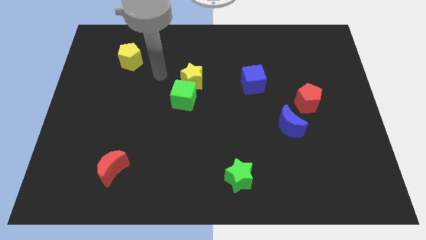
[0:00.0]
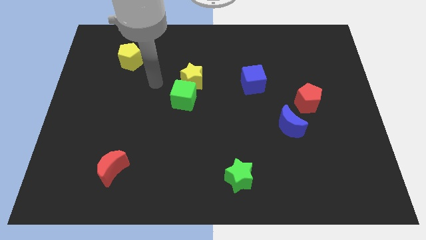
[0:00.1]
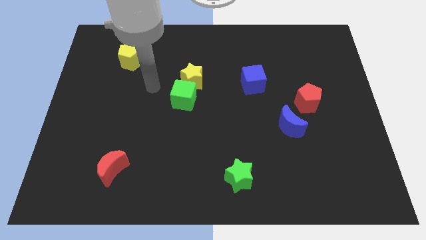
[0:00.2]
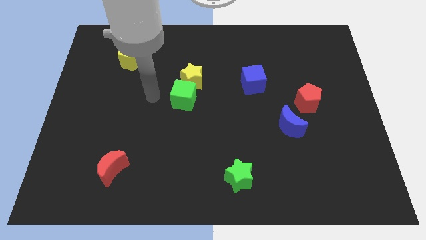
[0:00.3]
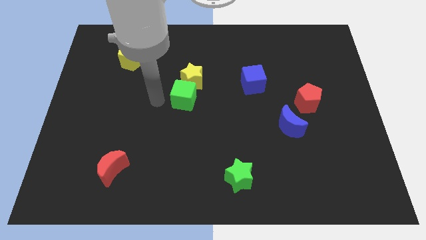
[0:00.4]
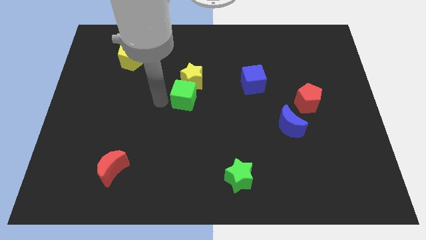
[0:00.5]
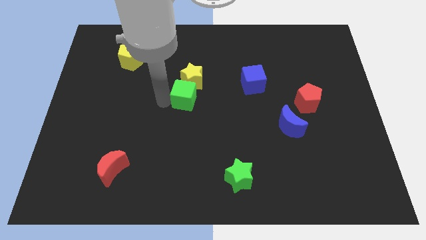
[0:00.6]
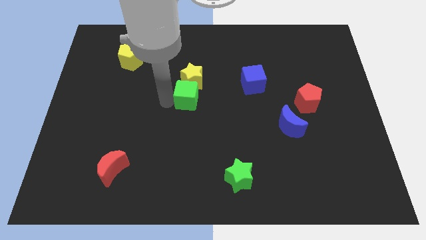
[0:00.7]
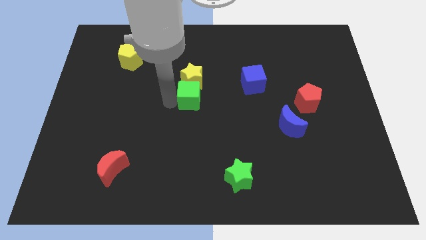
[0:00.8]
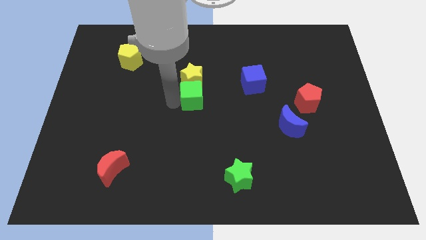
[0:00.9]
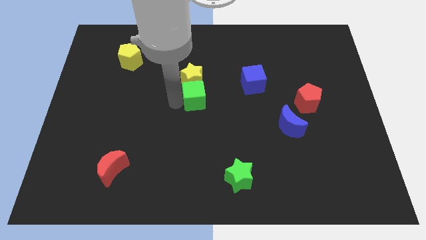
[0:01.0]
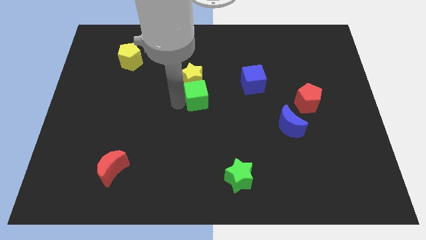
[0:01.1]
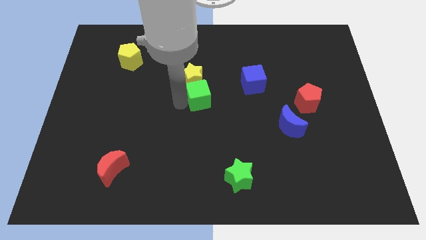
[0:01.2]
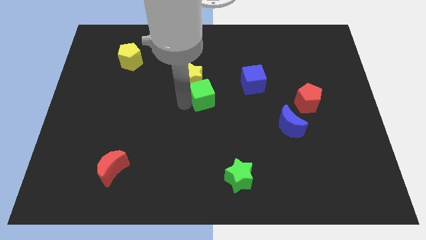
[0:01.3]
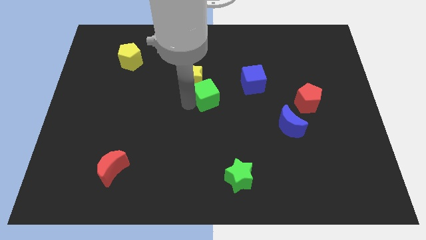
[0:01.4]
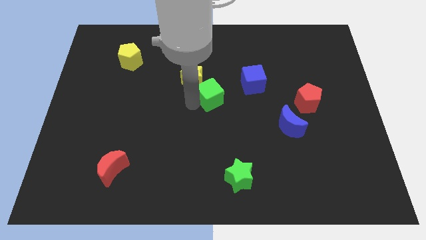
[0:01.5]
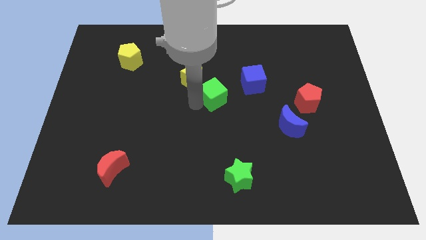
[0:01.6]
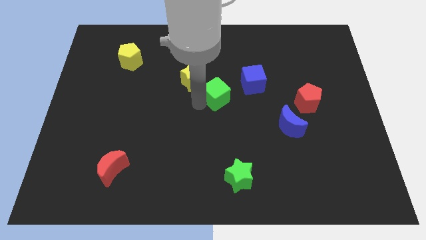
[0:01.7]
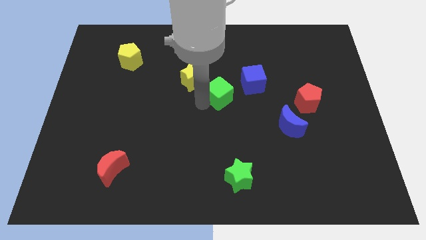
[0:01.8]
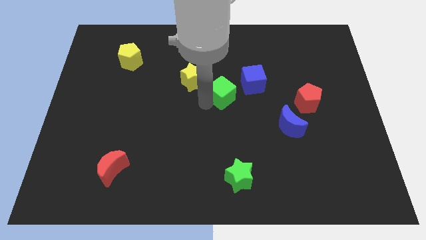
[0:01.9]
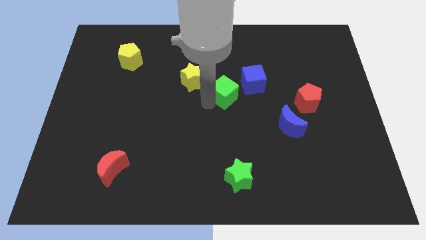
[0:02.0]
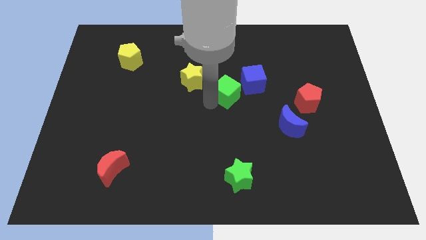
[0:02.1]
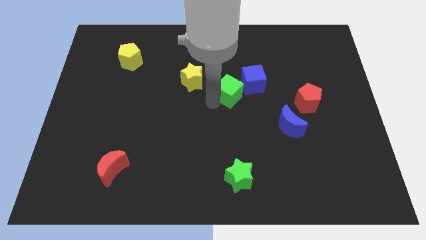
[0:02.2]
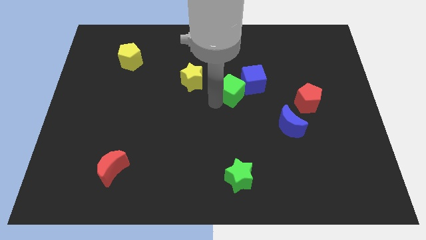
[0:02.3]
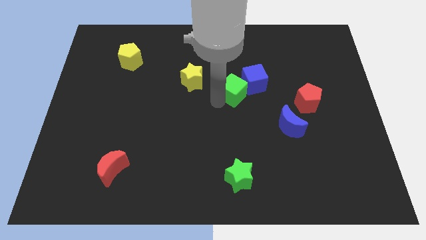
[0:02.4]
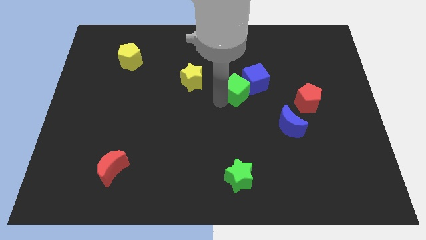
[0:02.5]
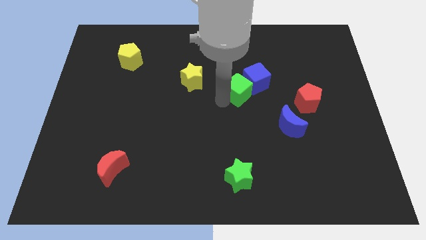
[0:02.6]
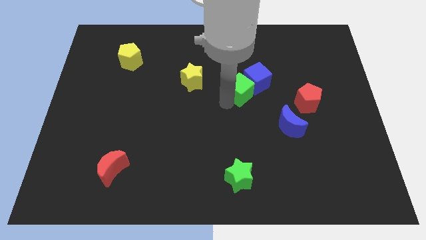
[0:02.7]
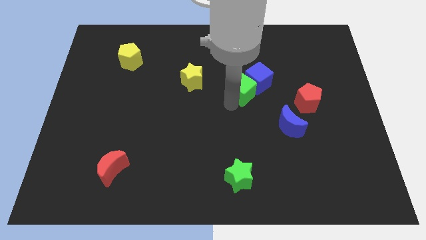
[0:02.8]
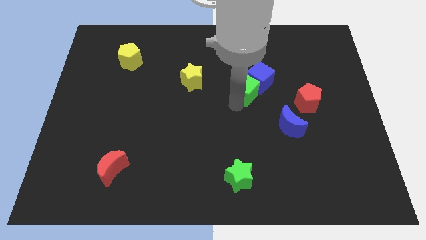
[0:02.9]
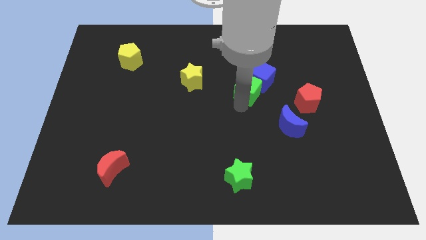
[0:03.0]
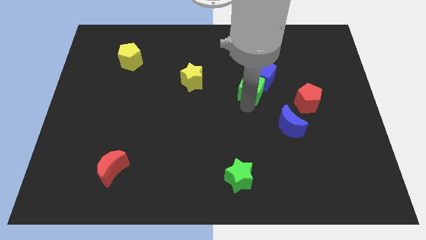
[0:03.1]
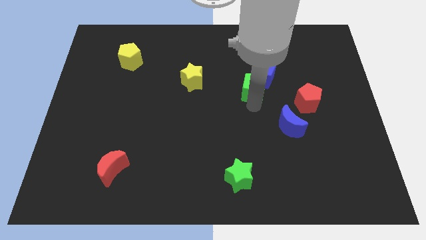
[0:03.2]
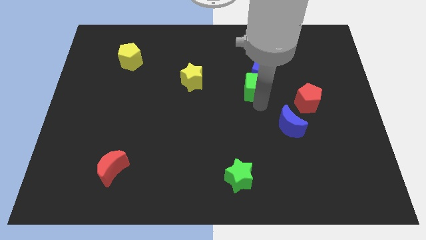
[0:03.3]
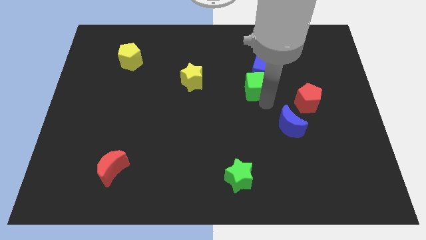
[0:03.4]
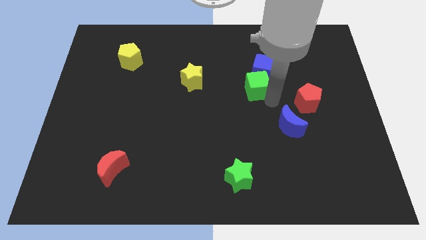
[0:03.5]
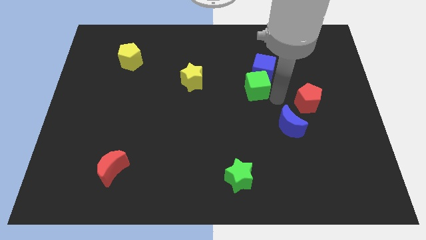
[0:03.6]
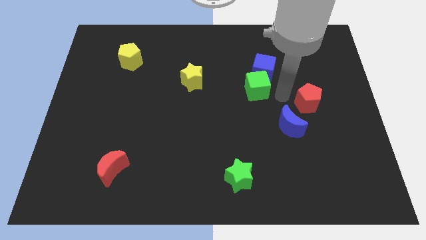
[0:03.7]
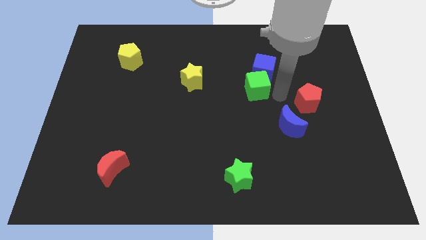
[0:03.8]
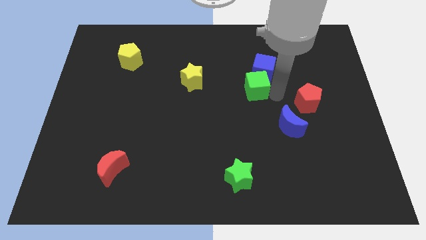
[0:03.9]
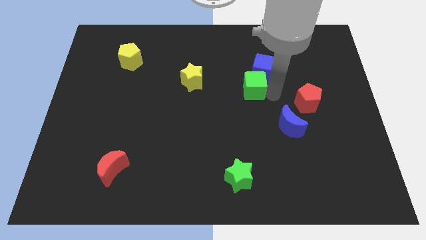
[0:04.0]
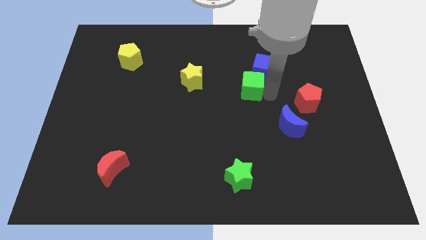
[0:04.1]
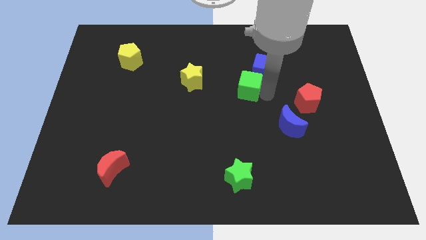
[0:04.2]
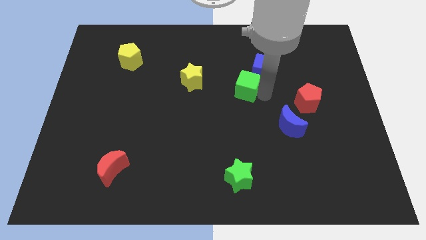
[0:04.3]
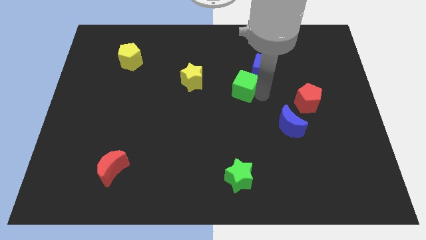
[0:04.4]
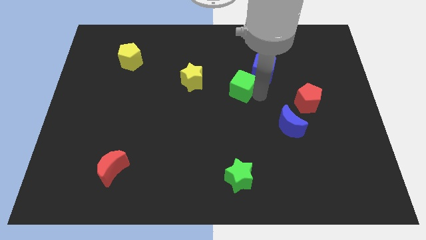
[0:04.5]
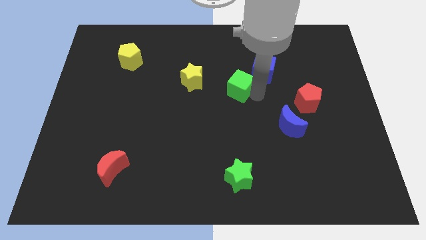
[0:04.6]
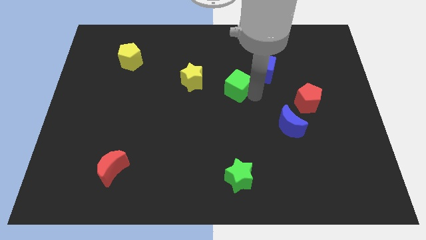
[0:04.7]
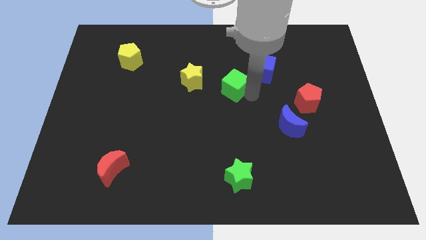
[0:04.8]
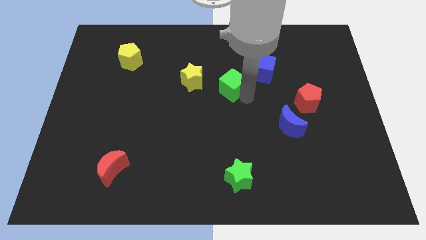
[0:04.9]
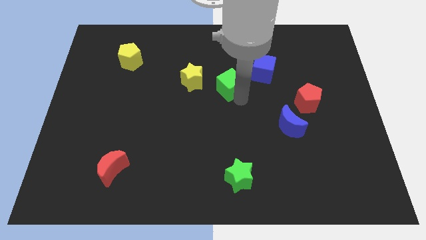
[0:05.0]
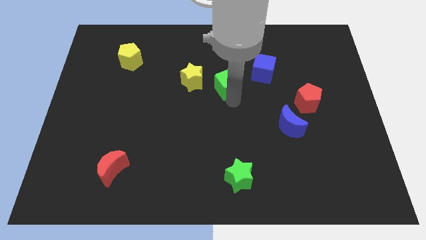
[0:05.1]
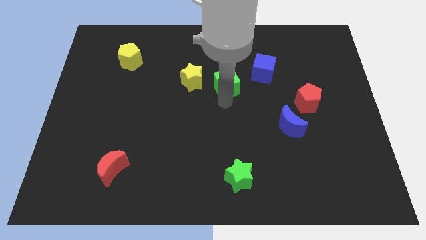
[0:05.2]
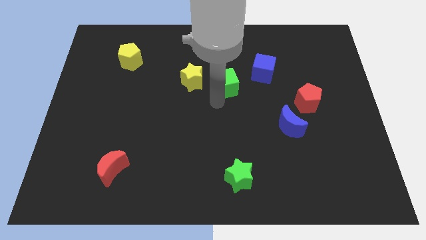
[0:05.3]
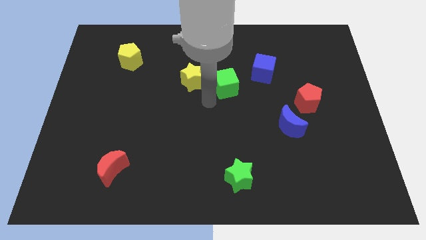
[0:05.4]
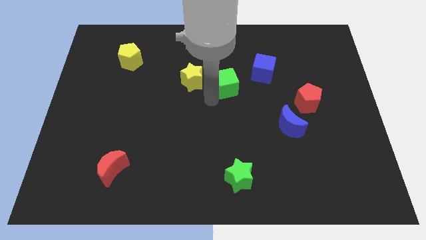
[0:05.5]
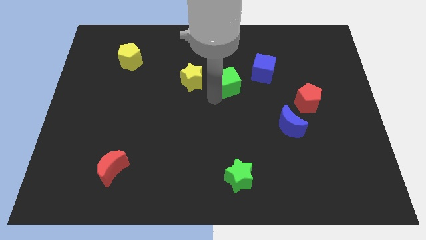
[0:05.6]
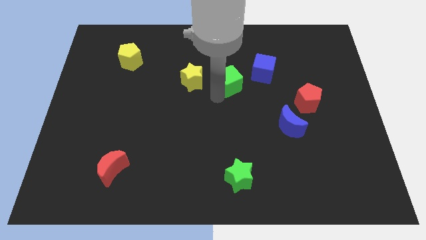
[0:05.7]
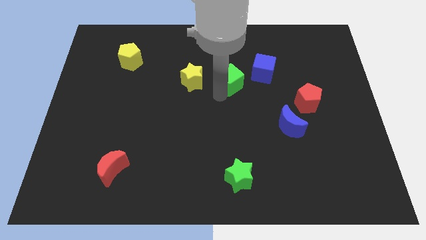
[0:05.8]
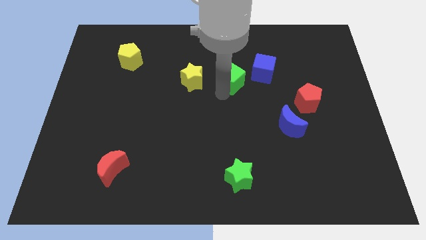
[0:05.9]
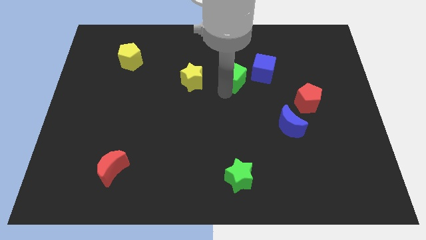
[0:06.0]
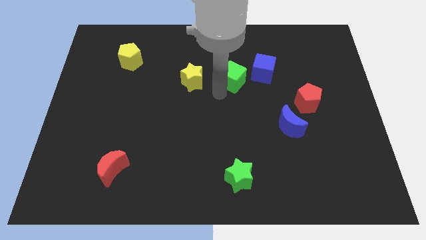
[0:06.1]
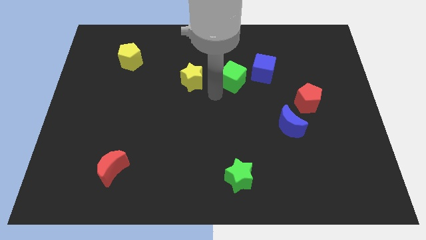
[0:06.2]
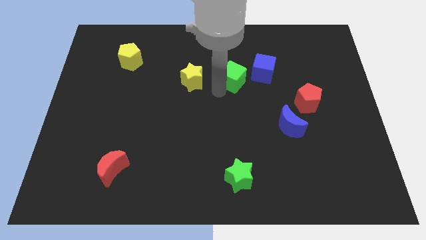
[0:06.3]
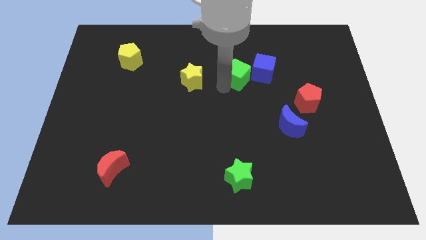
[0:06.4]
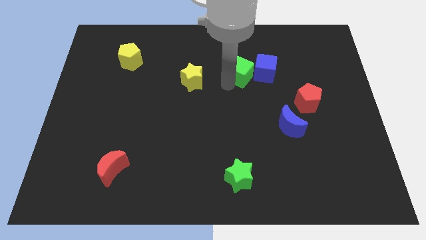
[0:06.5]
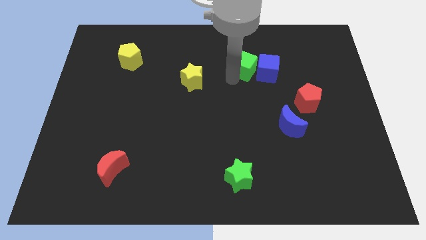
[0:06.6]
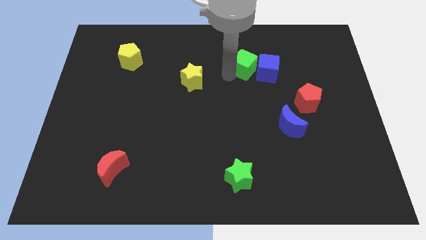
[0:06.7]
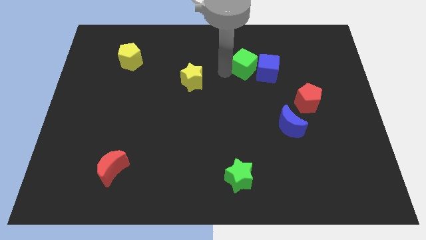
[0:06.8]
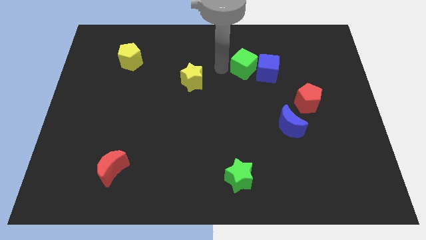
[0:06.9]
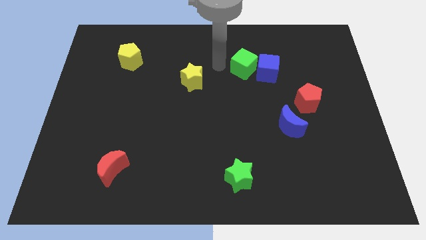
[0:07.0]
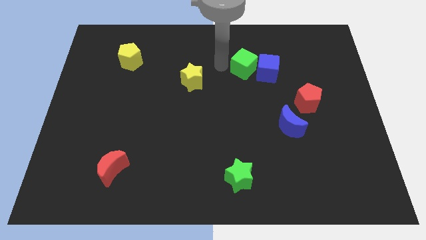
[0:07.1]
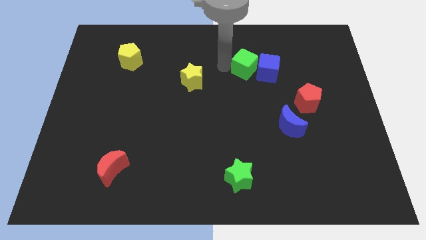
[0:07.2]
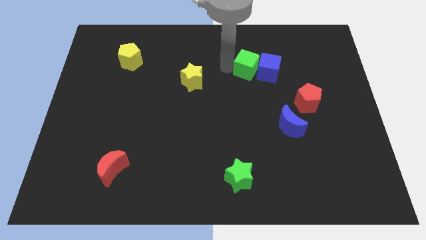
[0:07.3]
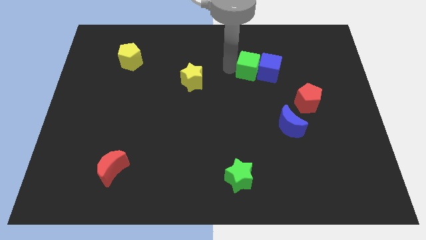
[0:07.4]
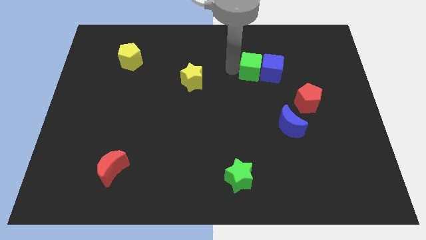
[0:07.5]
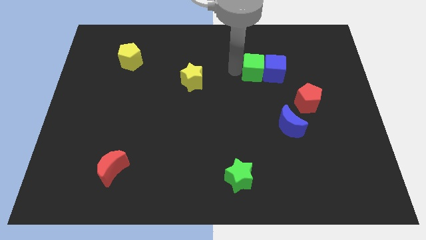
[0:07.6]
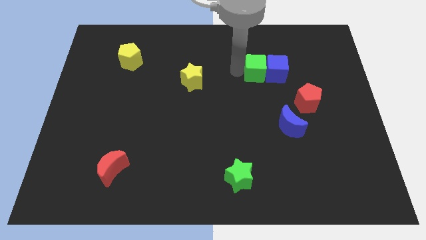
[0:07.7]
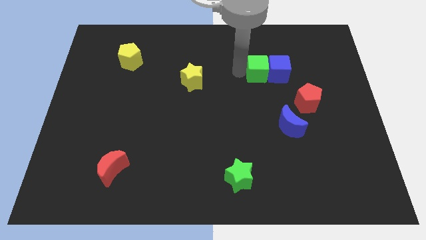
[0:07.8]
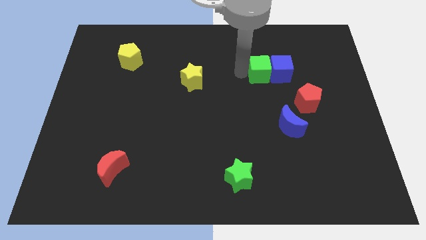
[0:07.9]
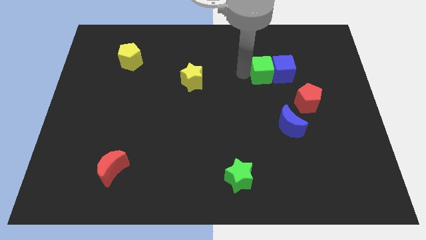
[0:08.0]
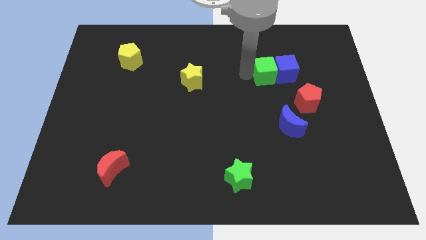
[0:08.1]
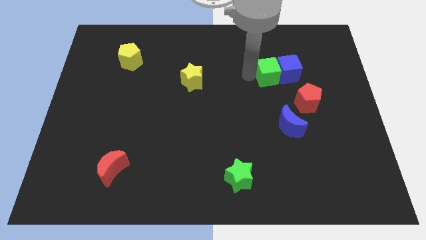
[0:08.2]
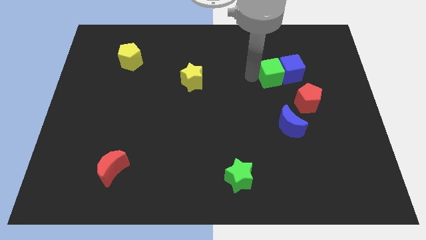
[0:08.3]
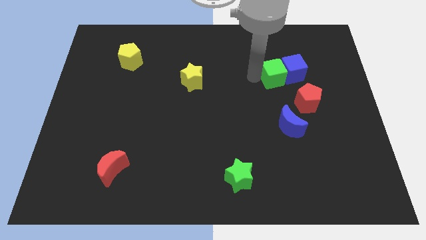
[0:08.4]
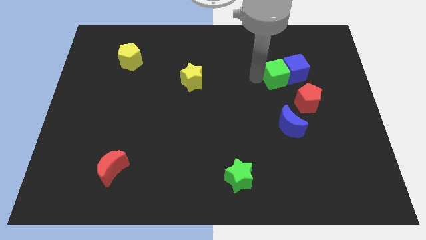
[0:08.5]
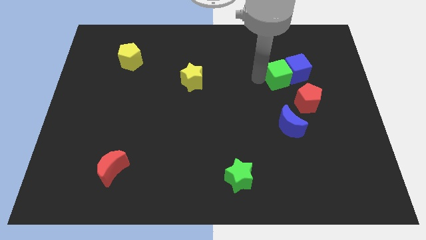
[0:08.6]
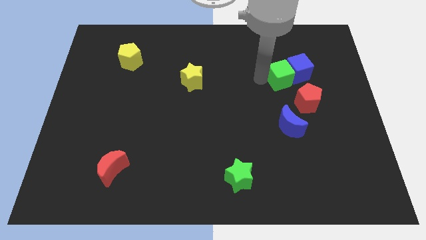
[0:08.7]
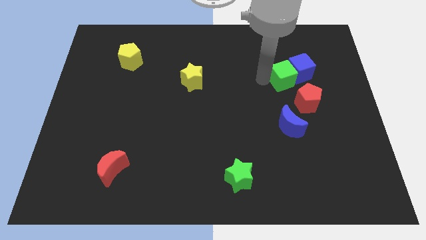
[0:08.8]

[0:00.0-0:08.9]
slide the green cube to the top of the red pentagon
